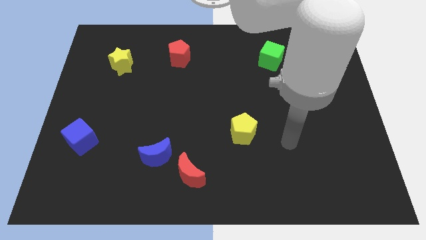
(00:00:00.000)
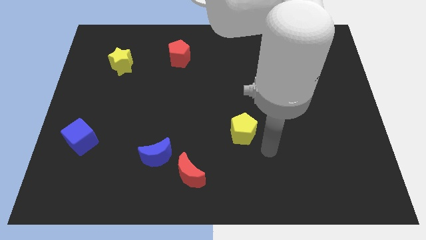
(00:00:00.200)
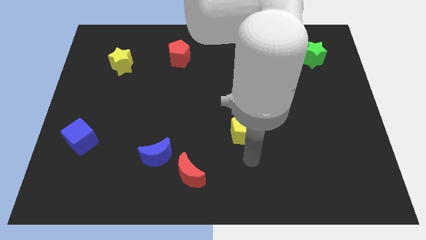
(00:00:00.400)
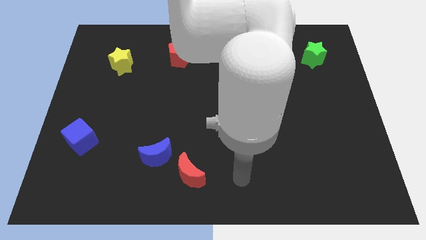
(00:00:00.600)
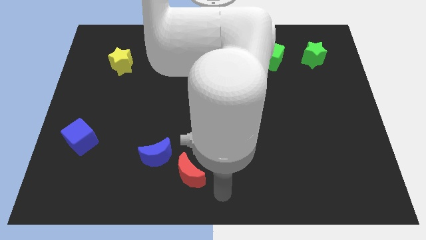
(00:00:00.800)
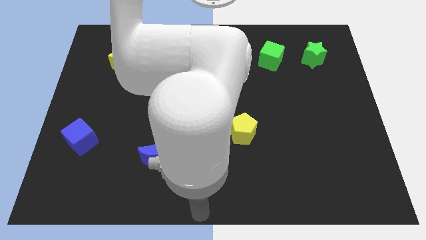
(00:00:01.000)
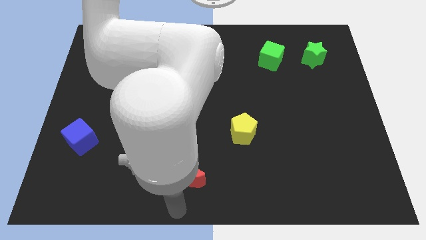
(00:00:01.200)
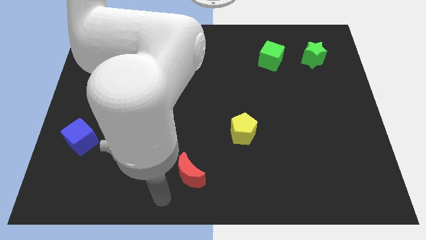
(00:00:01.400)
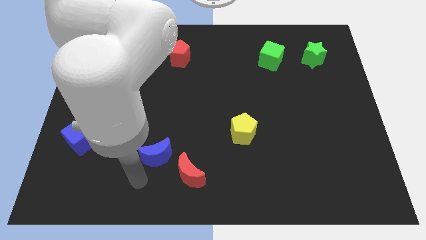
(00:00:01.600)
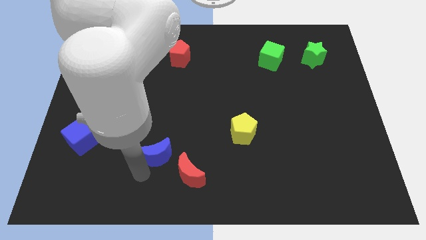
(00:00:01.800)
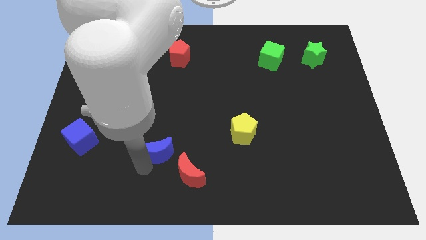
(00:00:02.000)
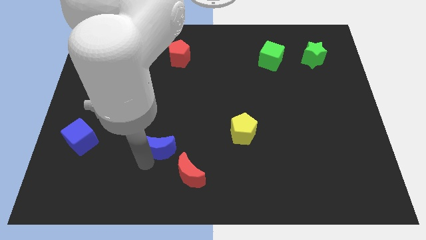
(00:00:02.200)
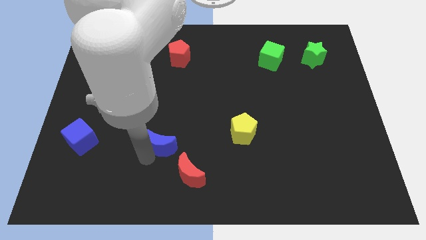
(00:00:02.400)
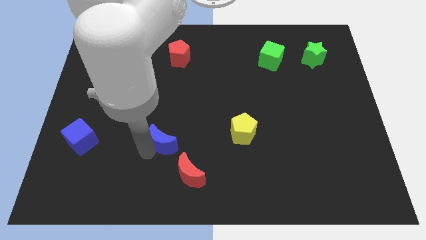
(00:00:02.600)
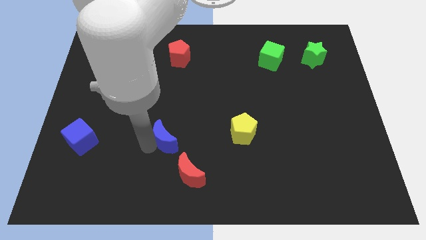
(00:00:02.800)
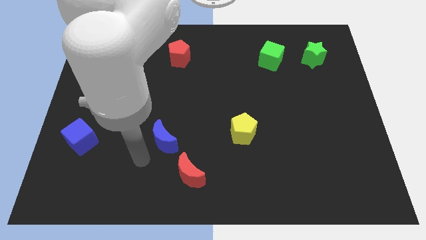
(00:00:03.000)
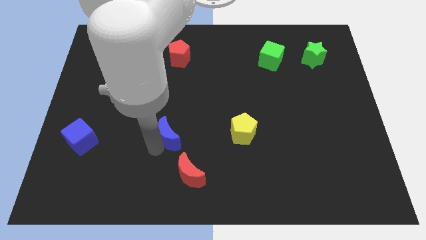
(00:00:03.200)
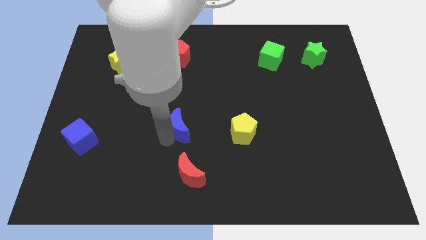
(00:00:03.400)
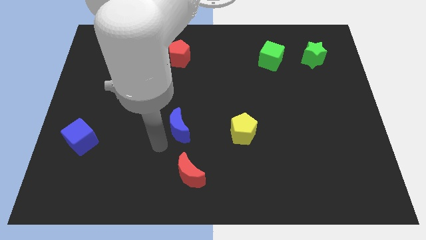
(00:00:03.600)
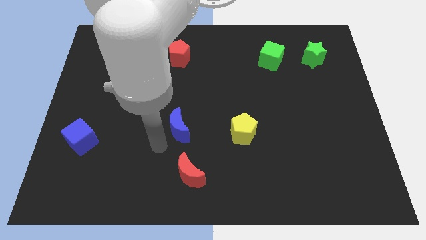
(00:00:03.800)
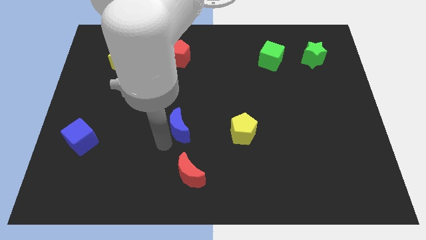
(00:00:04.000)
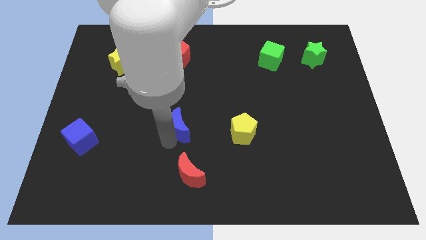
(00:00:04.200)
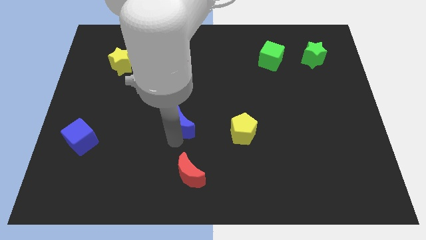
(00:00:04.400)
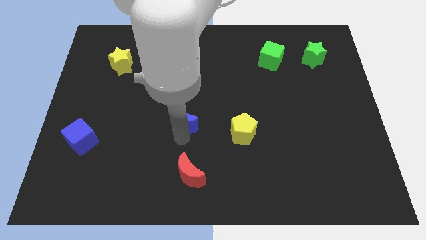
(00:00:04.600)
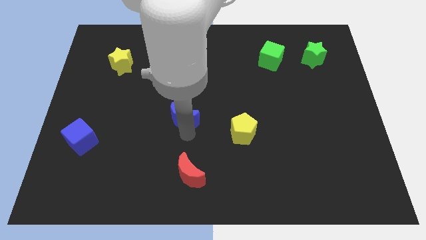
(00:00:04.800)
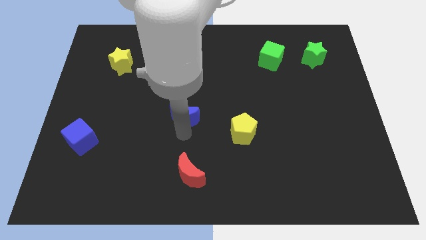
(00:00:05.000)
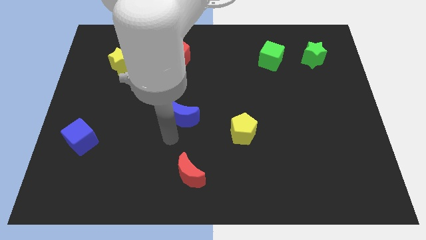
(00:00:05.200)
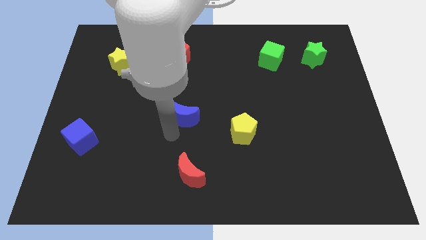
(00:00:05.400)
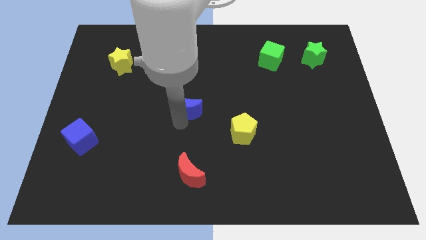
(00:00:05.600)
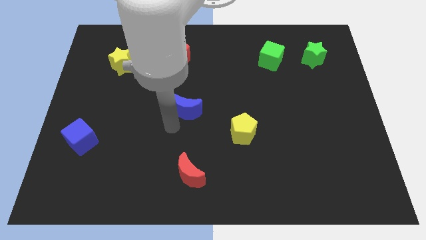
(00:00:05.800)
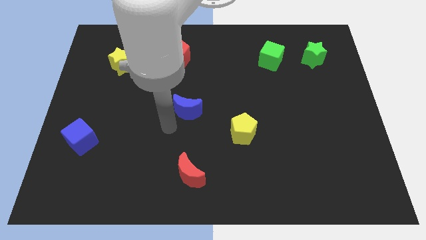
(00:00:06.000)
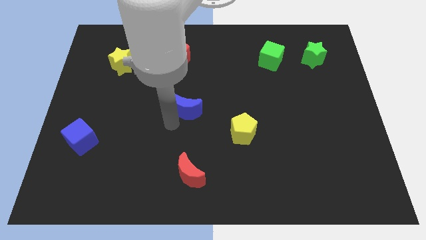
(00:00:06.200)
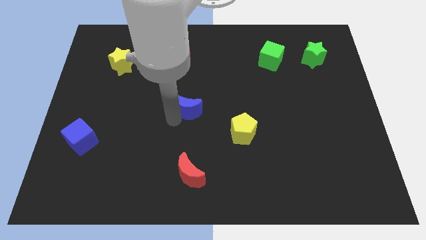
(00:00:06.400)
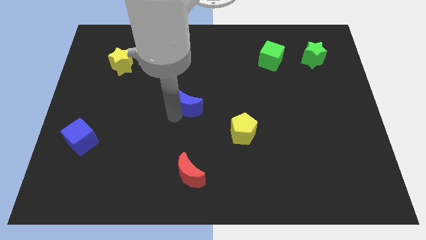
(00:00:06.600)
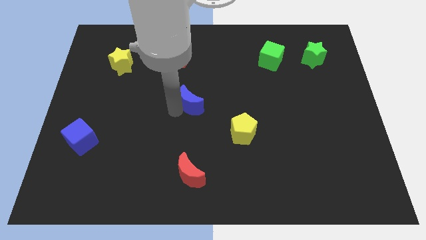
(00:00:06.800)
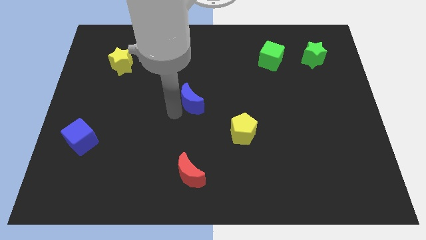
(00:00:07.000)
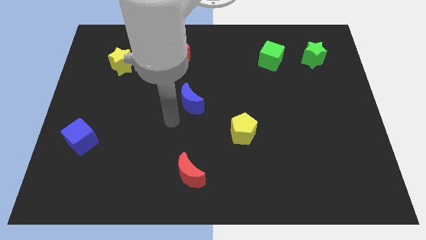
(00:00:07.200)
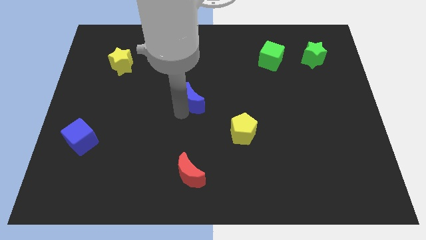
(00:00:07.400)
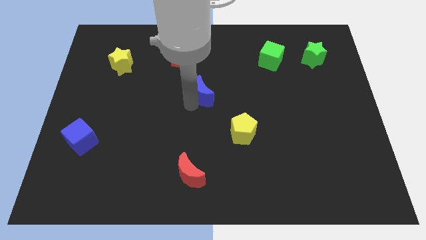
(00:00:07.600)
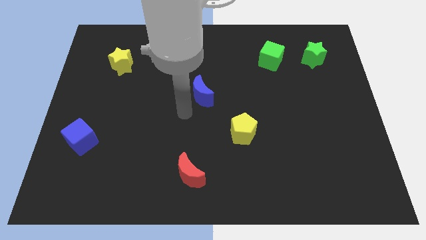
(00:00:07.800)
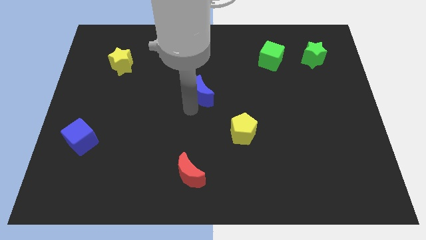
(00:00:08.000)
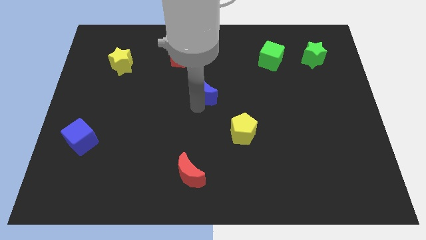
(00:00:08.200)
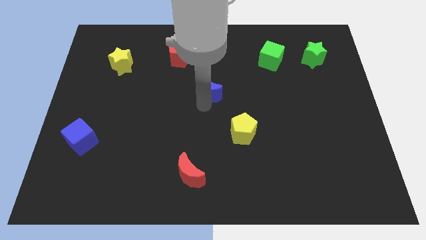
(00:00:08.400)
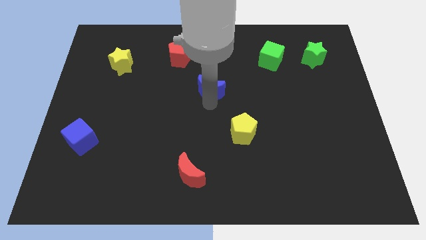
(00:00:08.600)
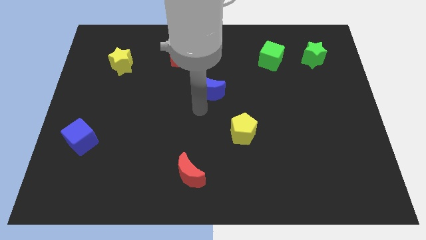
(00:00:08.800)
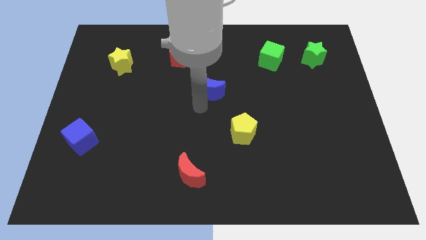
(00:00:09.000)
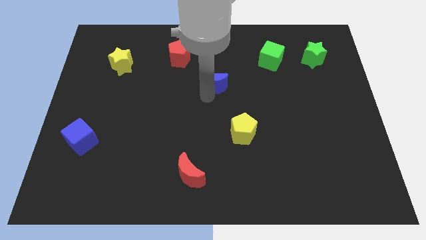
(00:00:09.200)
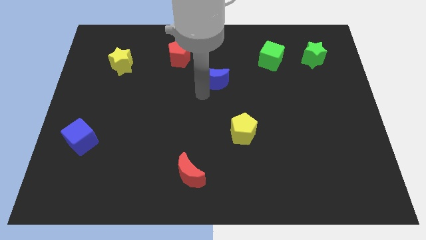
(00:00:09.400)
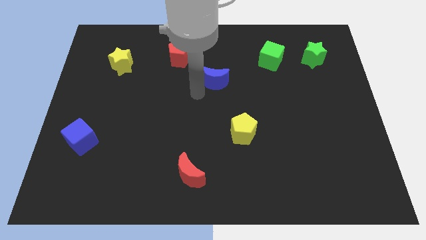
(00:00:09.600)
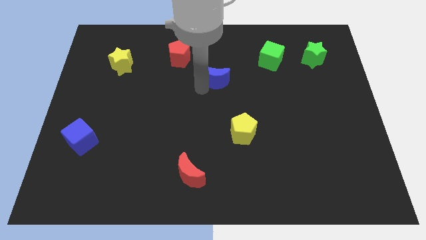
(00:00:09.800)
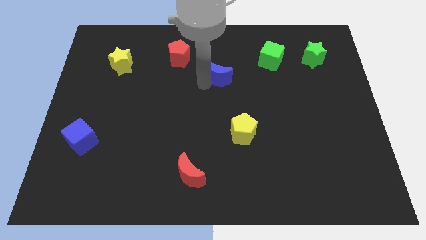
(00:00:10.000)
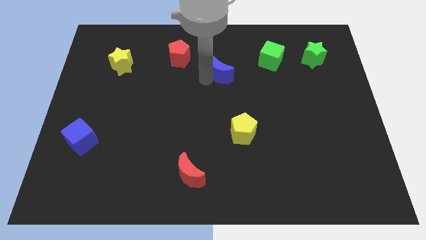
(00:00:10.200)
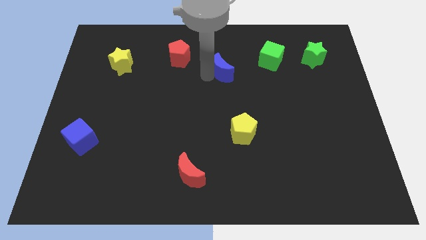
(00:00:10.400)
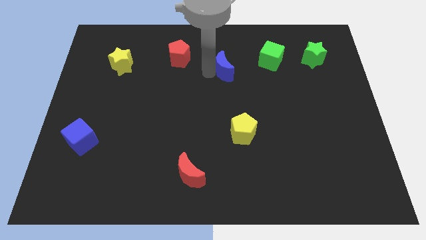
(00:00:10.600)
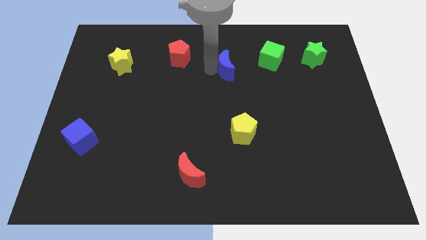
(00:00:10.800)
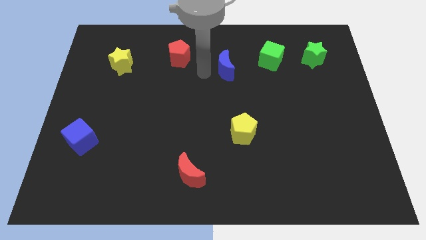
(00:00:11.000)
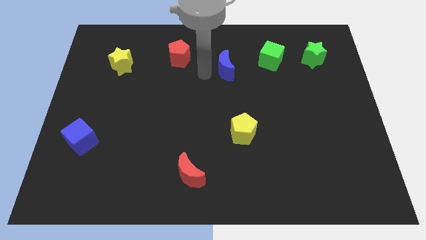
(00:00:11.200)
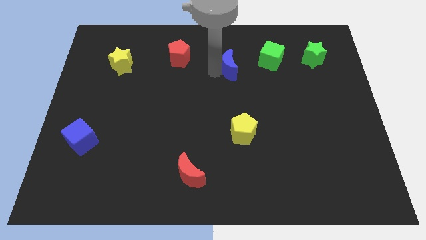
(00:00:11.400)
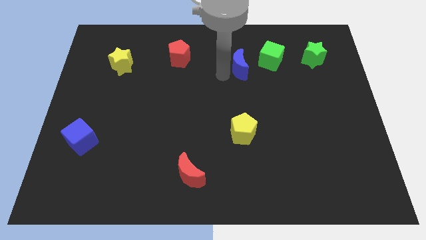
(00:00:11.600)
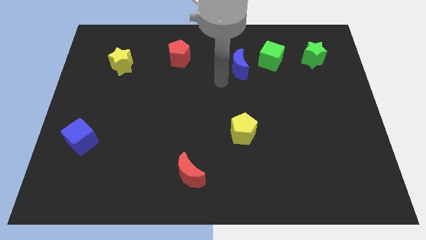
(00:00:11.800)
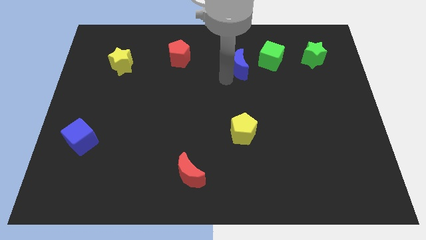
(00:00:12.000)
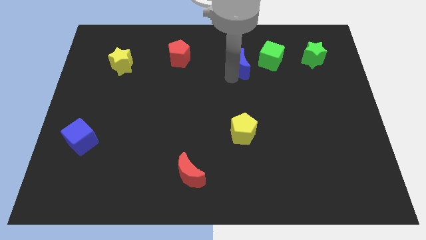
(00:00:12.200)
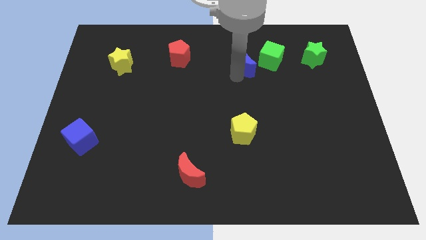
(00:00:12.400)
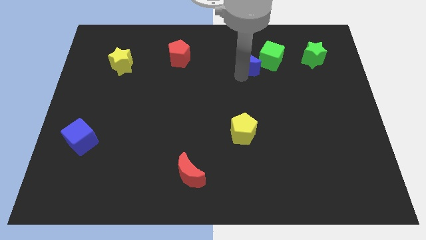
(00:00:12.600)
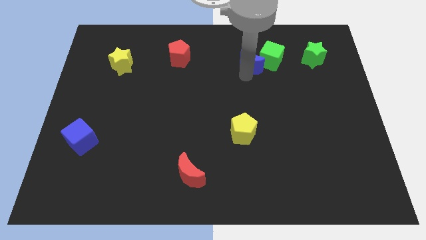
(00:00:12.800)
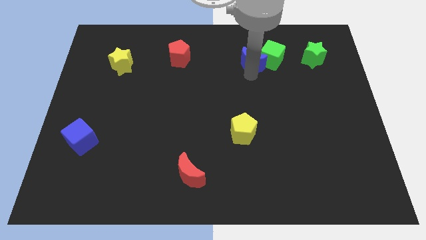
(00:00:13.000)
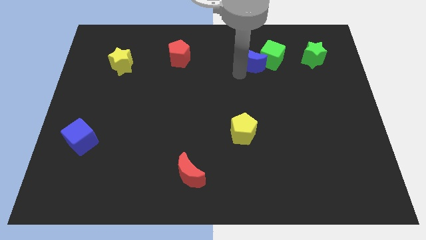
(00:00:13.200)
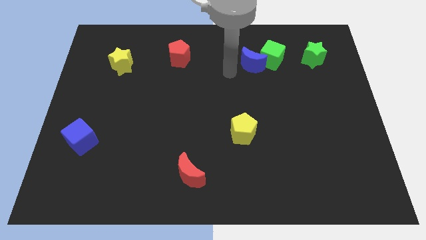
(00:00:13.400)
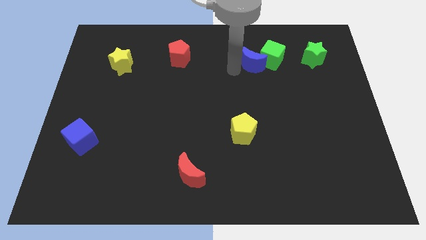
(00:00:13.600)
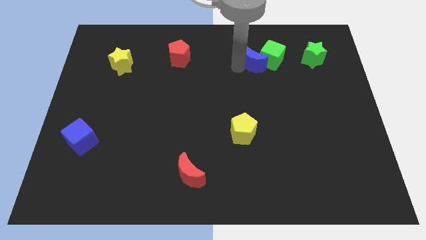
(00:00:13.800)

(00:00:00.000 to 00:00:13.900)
put the blue moon just left of the green star
